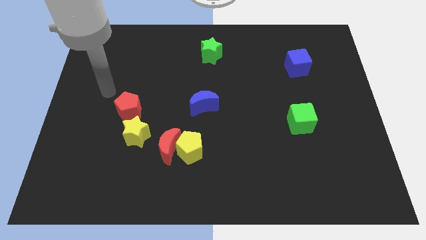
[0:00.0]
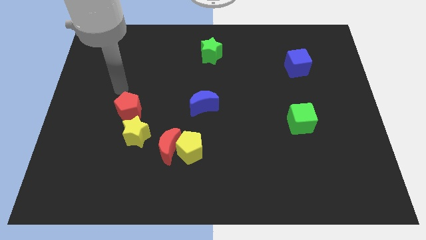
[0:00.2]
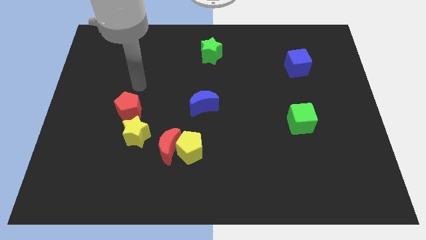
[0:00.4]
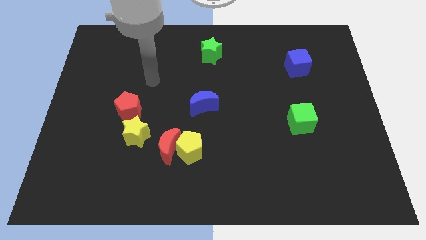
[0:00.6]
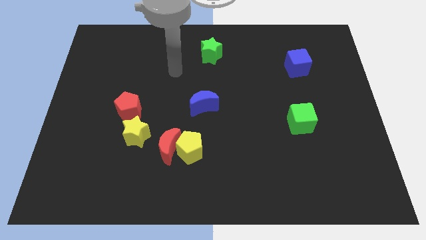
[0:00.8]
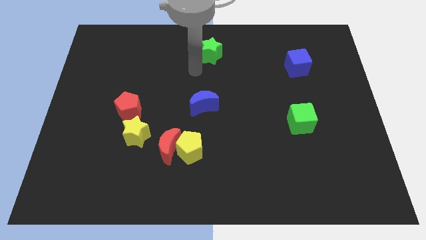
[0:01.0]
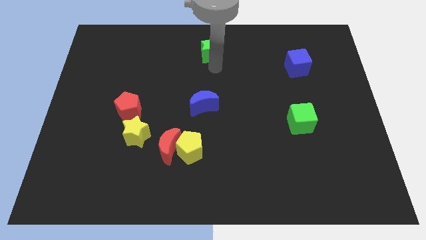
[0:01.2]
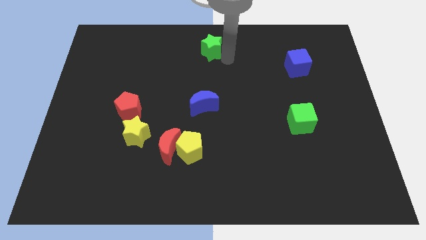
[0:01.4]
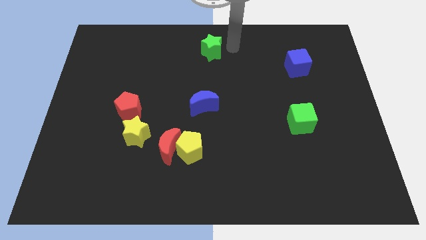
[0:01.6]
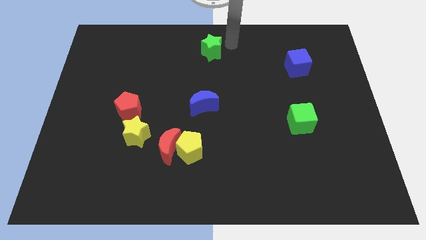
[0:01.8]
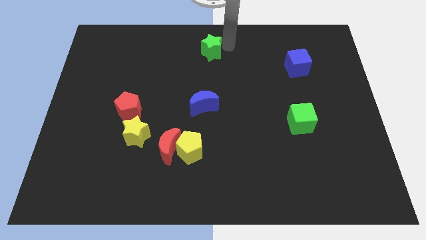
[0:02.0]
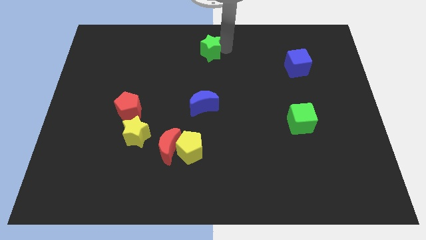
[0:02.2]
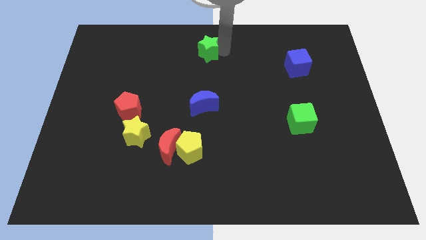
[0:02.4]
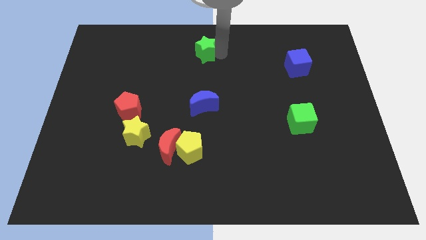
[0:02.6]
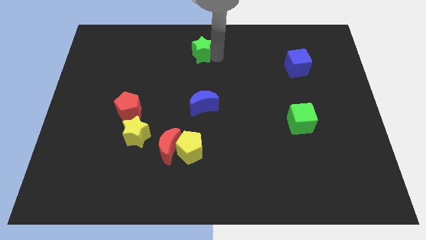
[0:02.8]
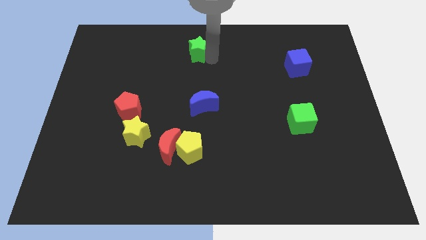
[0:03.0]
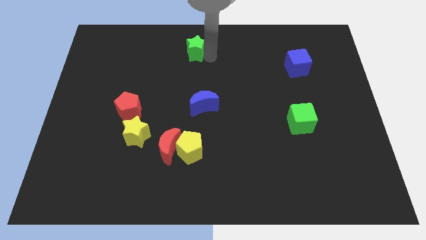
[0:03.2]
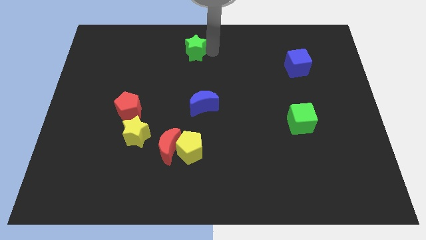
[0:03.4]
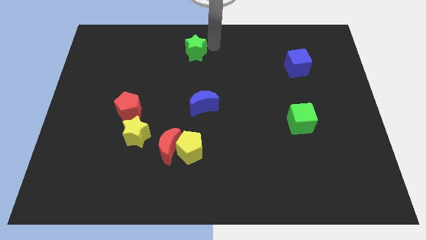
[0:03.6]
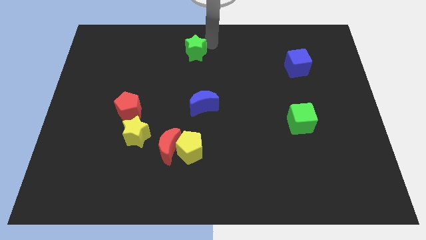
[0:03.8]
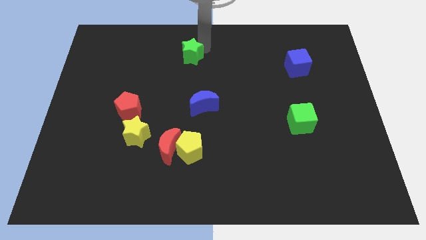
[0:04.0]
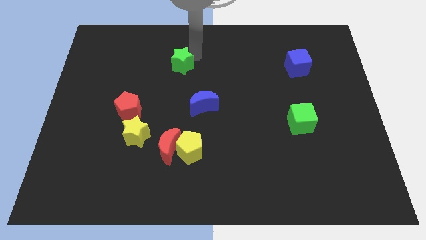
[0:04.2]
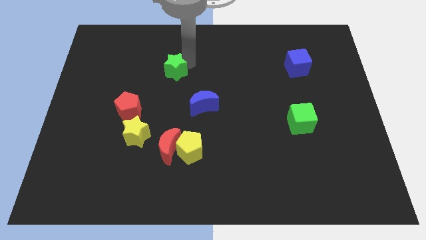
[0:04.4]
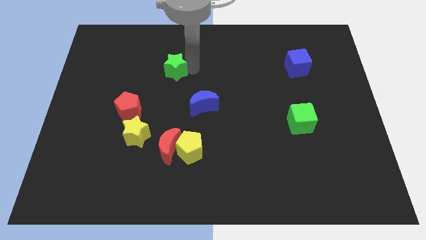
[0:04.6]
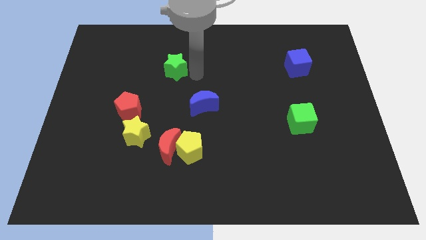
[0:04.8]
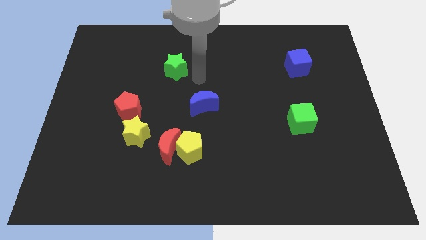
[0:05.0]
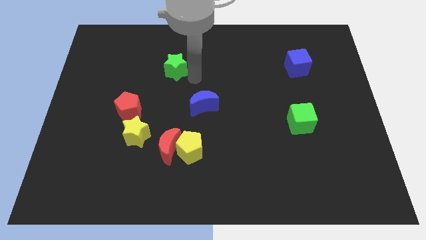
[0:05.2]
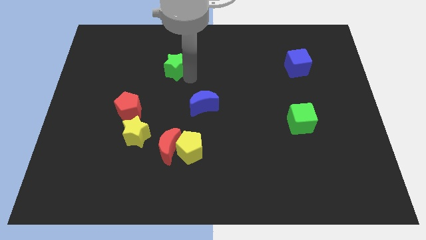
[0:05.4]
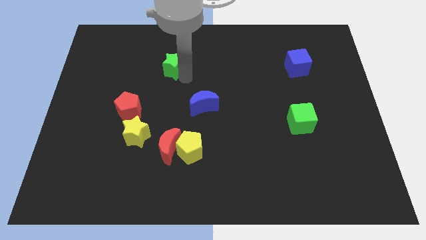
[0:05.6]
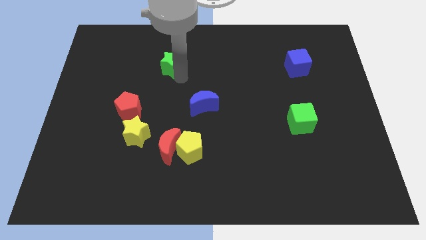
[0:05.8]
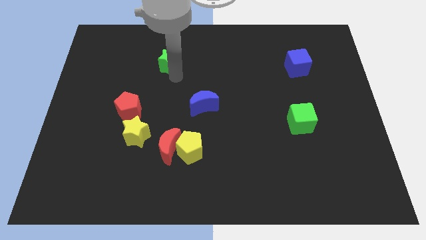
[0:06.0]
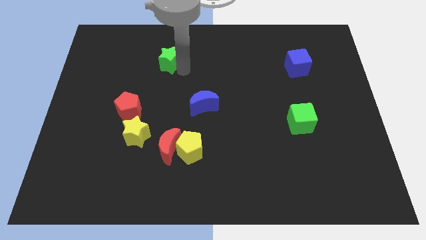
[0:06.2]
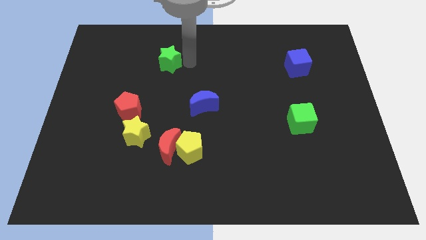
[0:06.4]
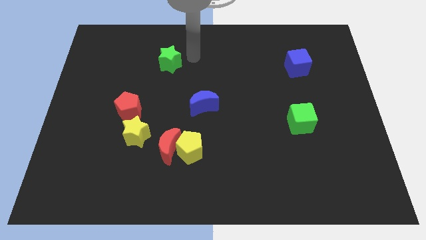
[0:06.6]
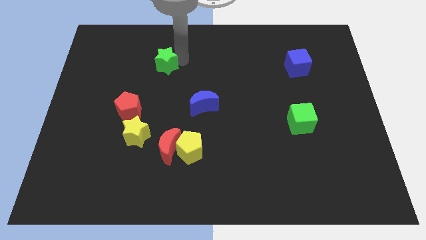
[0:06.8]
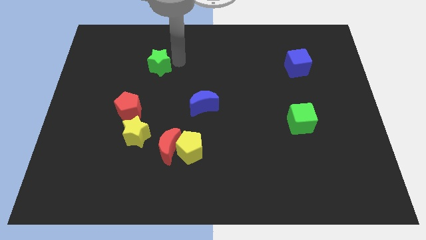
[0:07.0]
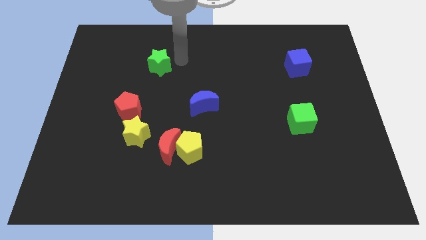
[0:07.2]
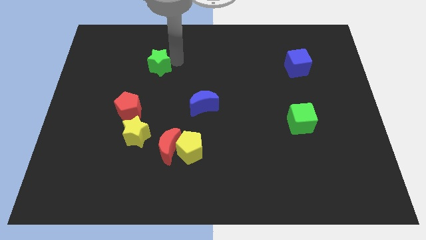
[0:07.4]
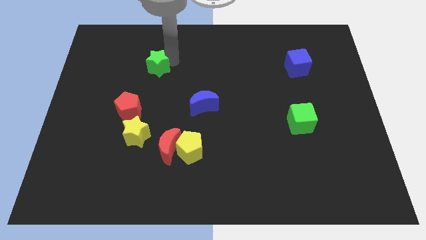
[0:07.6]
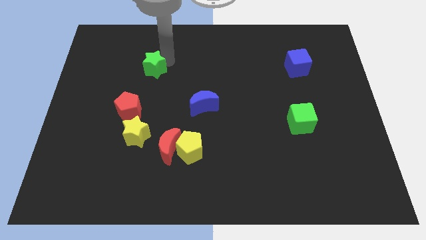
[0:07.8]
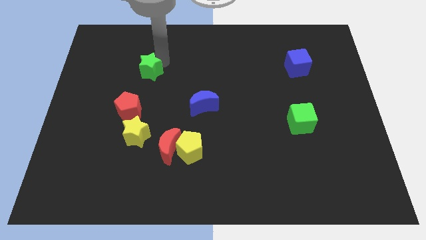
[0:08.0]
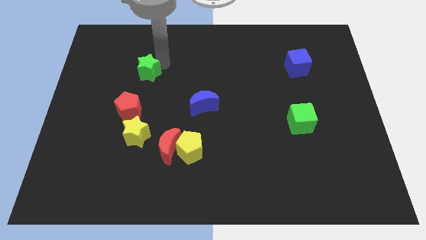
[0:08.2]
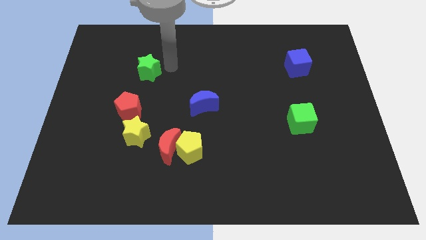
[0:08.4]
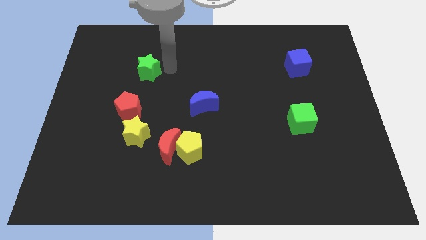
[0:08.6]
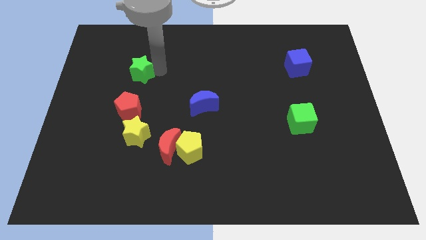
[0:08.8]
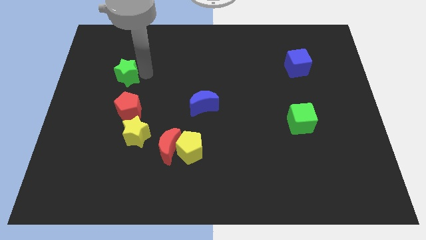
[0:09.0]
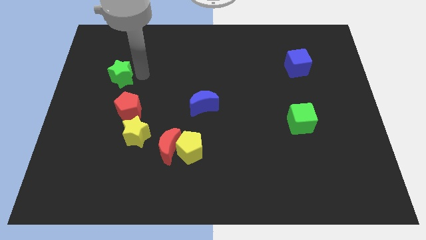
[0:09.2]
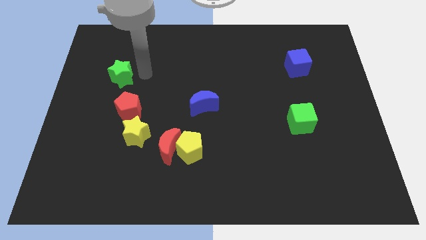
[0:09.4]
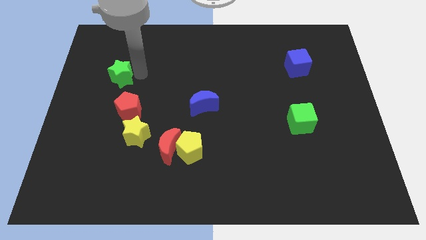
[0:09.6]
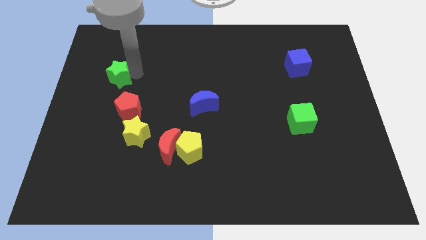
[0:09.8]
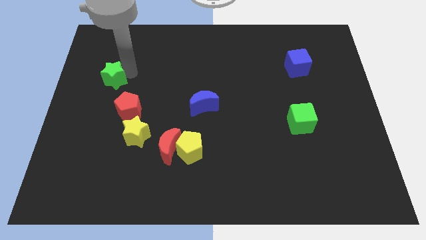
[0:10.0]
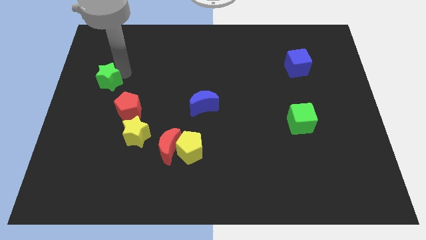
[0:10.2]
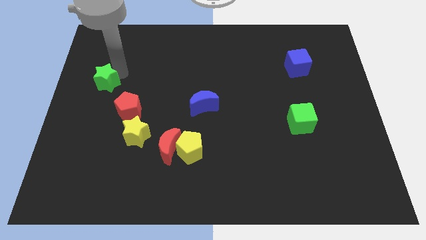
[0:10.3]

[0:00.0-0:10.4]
move the green star to the center left

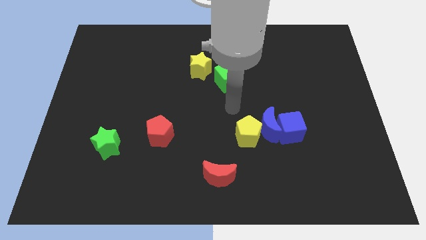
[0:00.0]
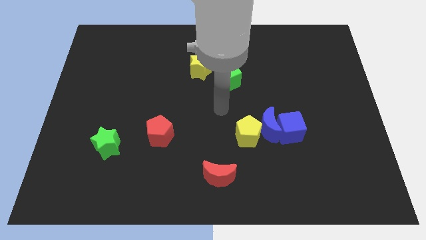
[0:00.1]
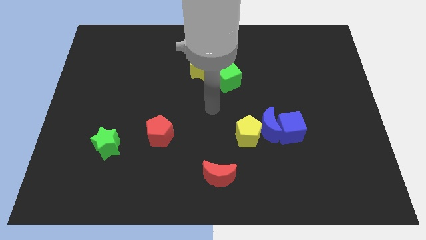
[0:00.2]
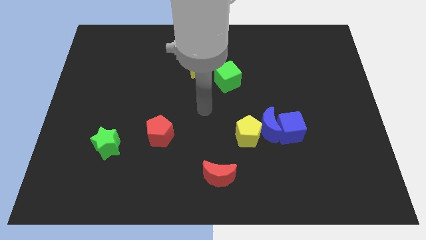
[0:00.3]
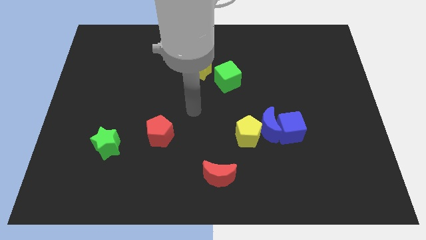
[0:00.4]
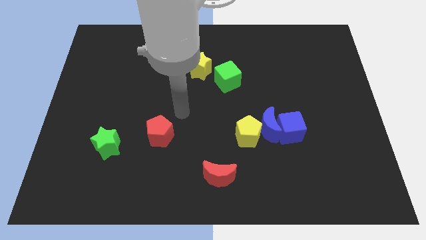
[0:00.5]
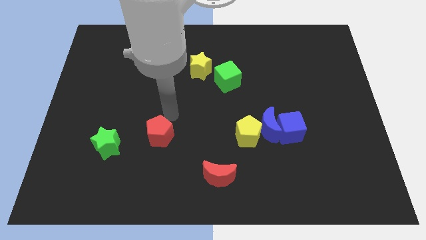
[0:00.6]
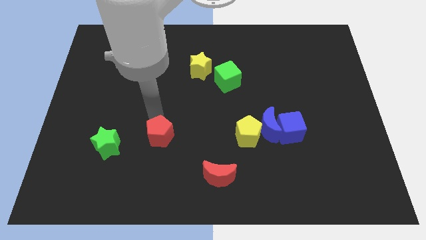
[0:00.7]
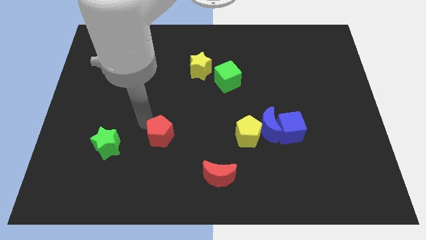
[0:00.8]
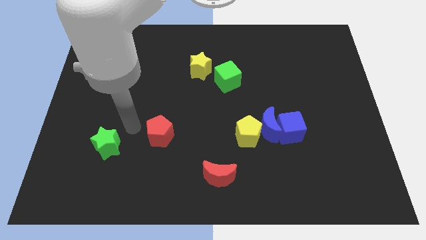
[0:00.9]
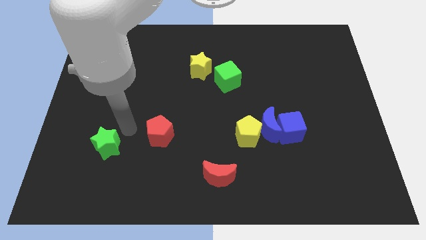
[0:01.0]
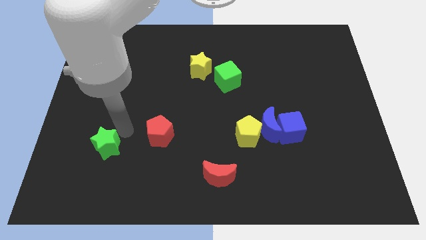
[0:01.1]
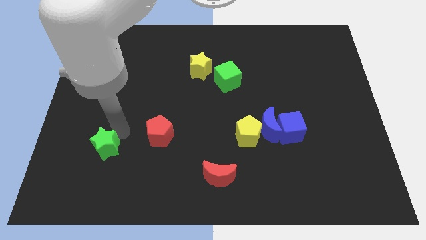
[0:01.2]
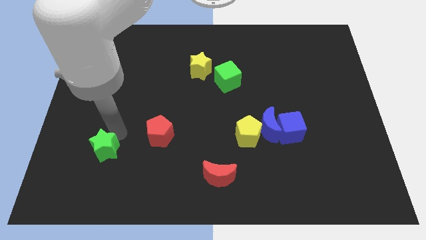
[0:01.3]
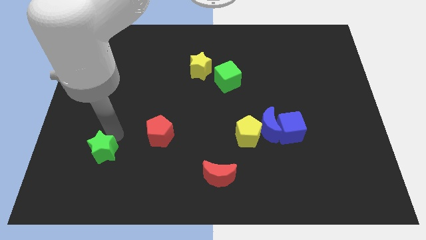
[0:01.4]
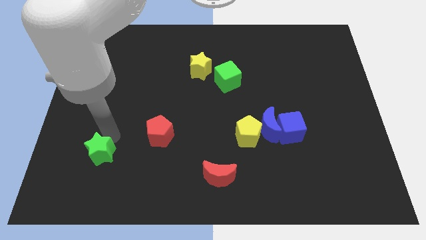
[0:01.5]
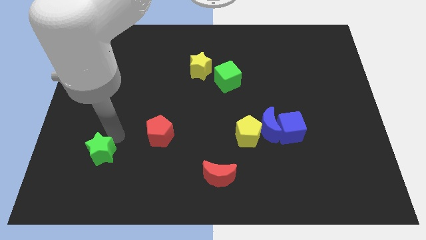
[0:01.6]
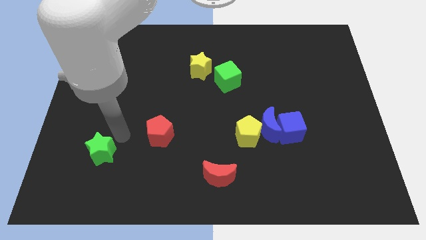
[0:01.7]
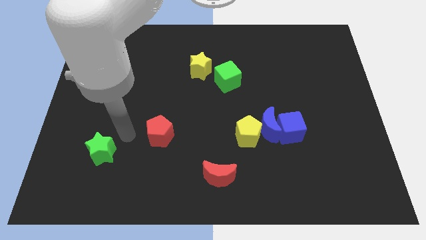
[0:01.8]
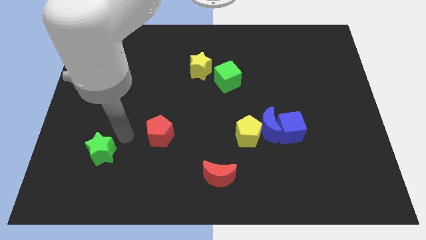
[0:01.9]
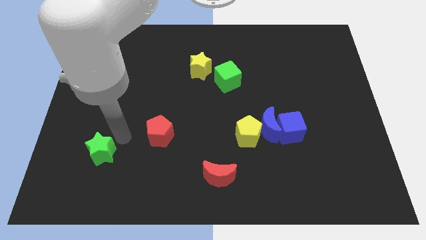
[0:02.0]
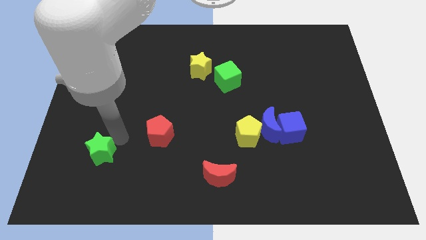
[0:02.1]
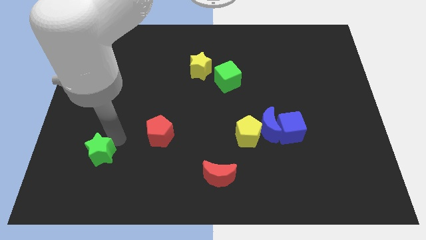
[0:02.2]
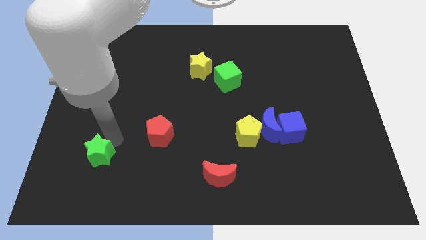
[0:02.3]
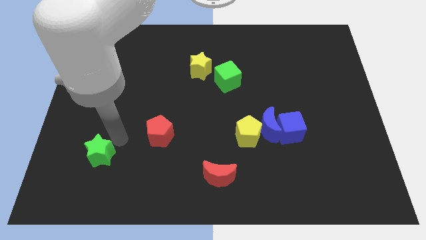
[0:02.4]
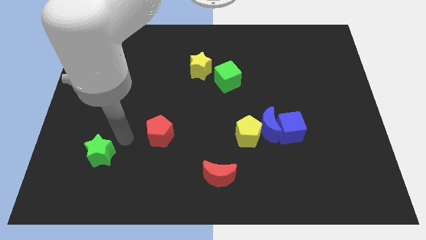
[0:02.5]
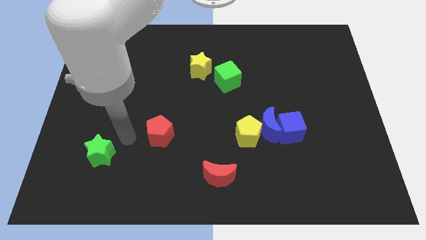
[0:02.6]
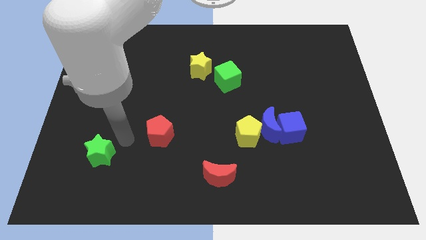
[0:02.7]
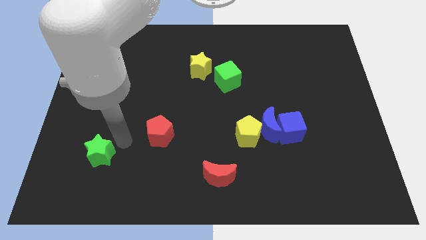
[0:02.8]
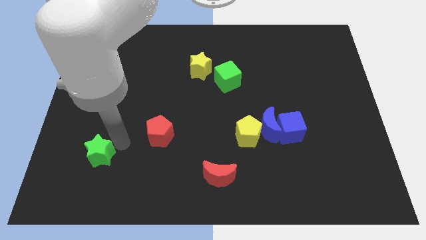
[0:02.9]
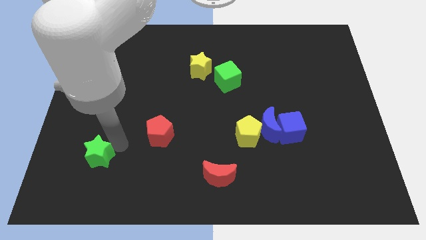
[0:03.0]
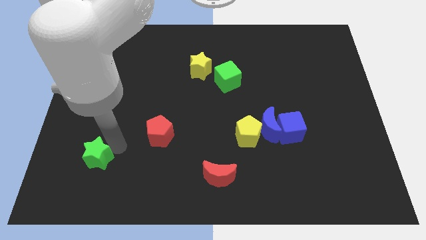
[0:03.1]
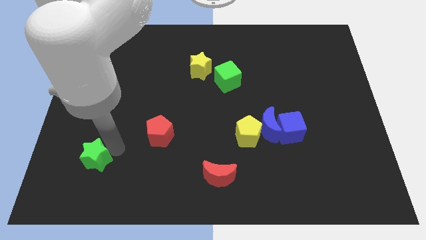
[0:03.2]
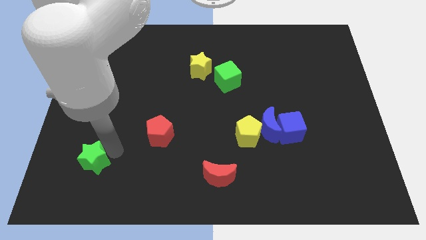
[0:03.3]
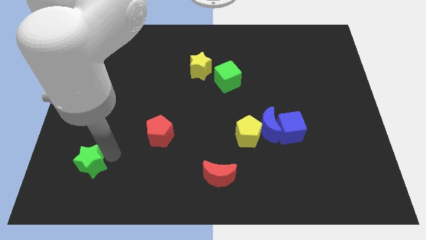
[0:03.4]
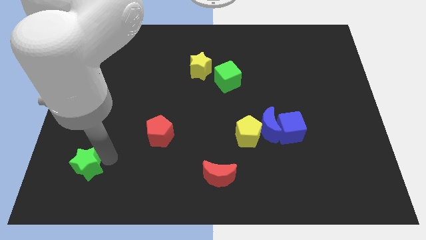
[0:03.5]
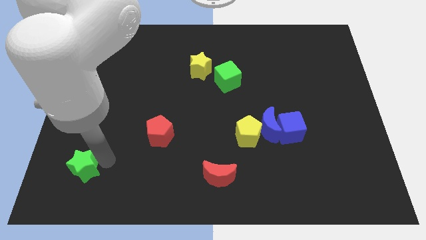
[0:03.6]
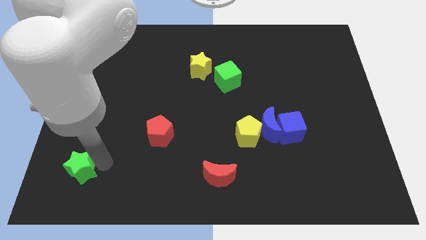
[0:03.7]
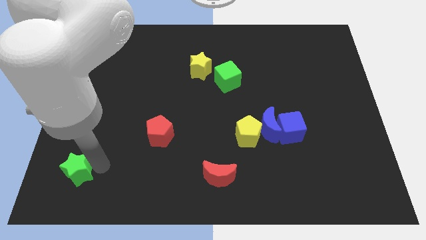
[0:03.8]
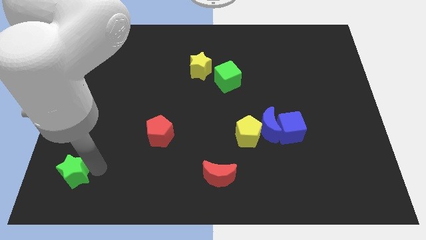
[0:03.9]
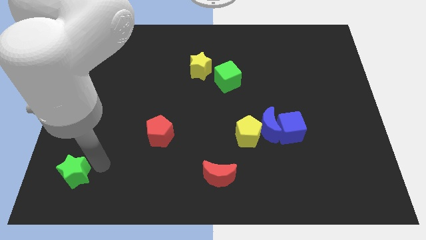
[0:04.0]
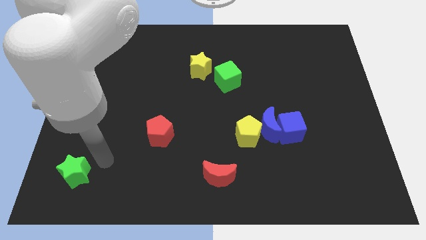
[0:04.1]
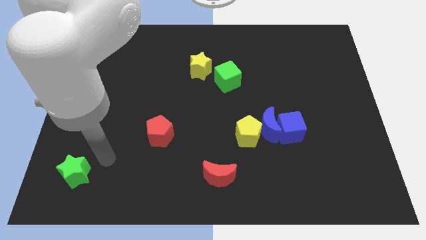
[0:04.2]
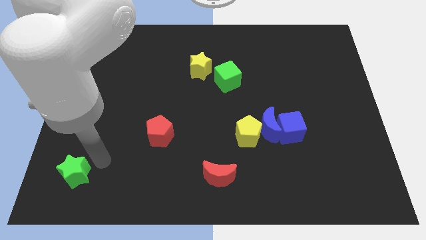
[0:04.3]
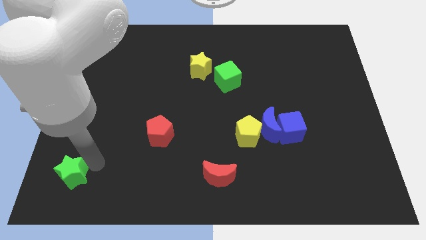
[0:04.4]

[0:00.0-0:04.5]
move the green star to the bottom left of the board
